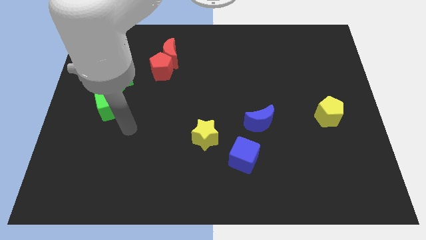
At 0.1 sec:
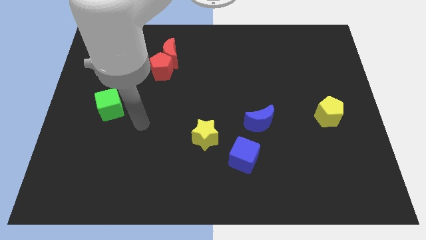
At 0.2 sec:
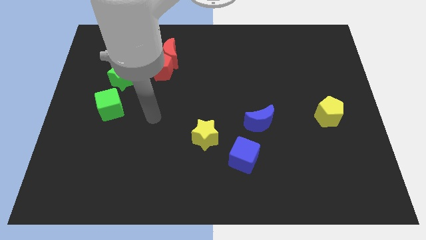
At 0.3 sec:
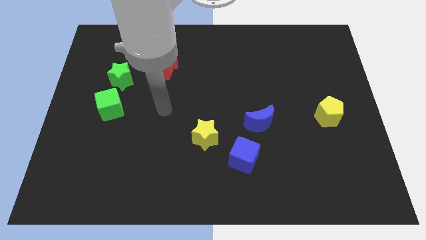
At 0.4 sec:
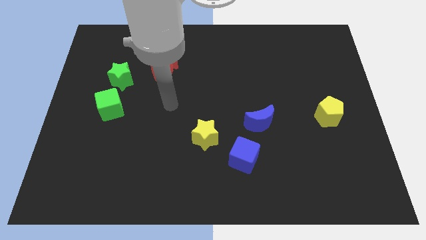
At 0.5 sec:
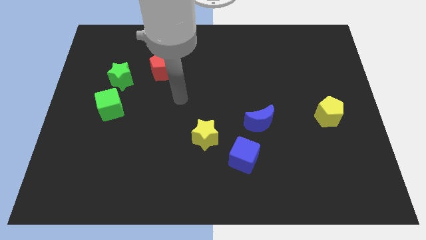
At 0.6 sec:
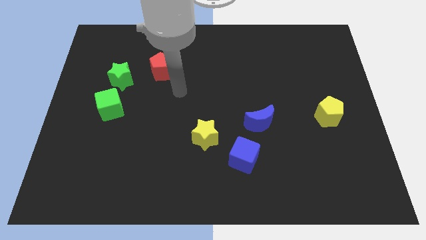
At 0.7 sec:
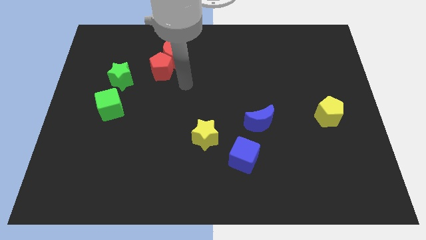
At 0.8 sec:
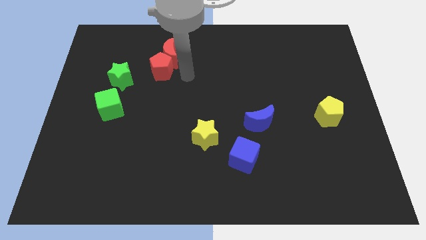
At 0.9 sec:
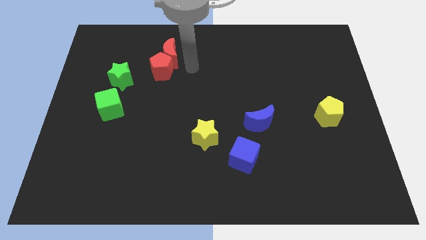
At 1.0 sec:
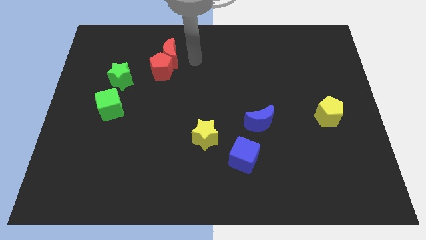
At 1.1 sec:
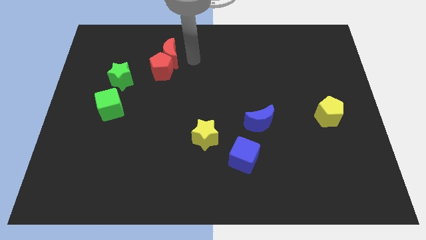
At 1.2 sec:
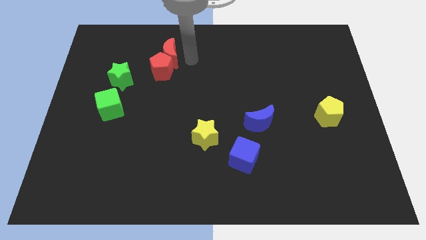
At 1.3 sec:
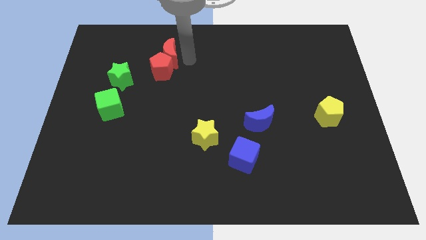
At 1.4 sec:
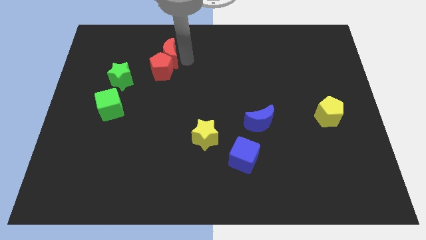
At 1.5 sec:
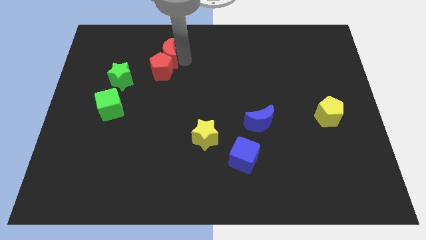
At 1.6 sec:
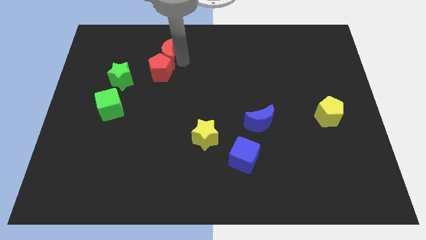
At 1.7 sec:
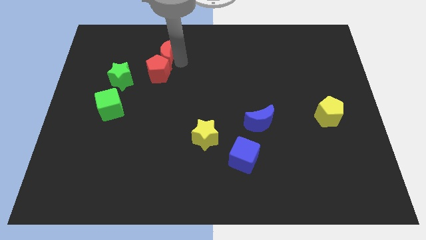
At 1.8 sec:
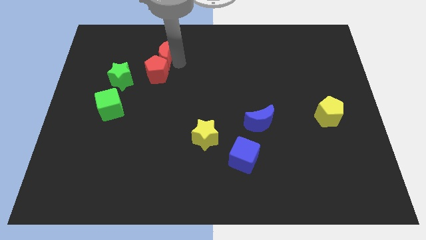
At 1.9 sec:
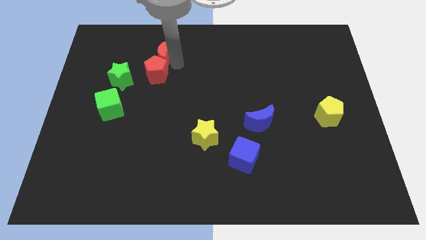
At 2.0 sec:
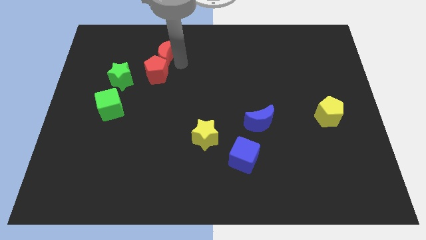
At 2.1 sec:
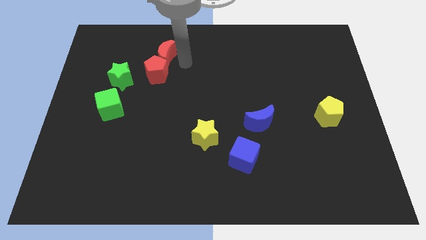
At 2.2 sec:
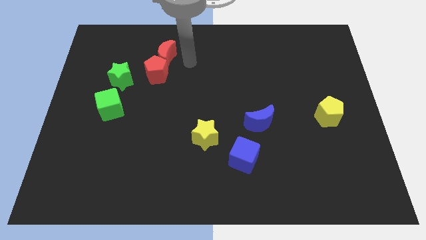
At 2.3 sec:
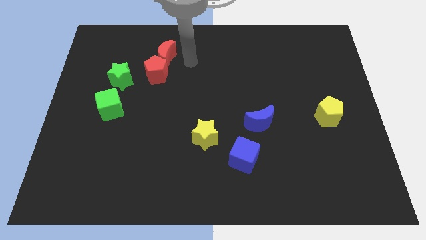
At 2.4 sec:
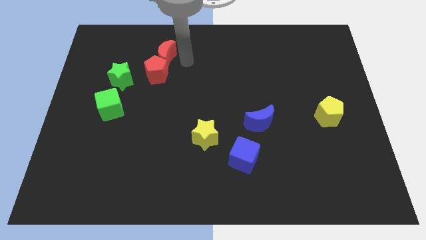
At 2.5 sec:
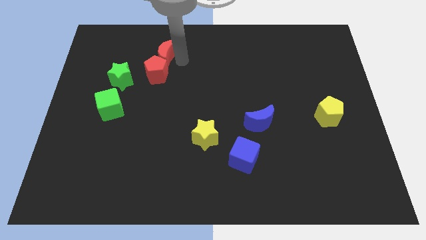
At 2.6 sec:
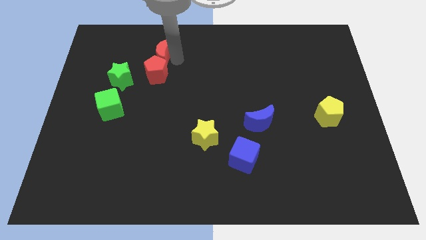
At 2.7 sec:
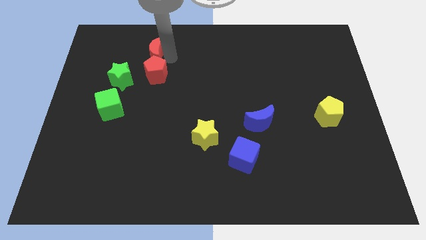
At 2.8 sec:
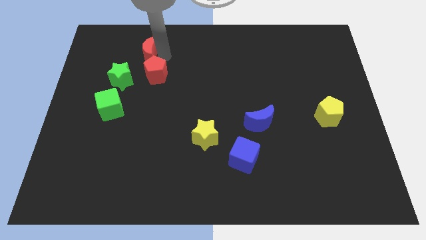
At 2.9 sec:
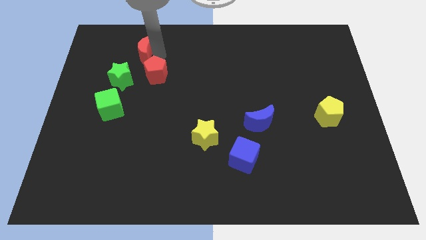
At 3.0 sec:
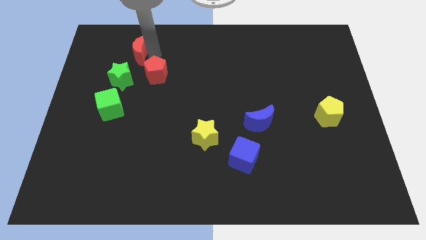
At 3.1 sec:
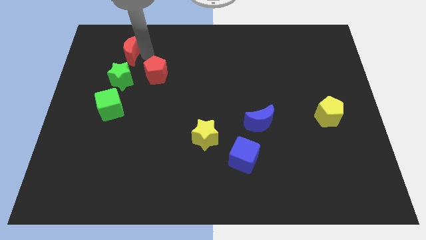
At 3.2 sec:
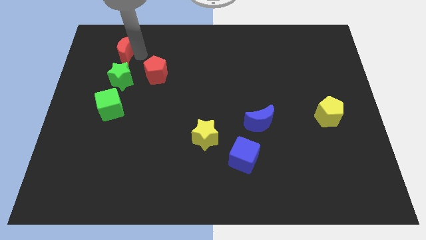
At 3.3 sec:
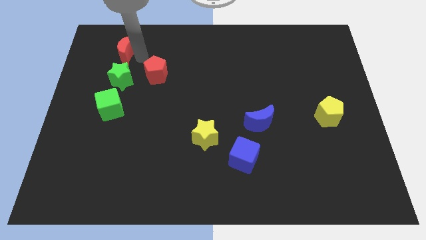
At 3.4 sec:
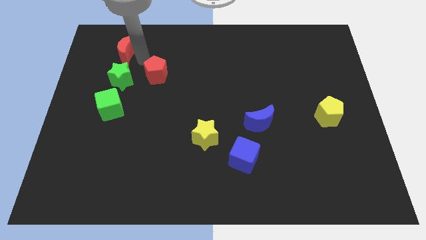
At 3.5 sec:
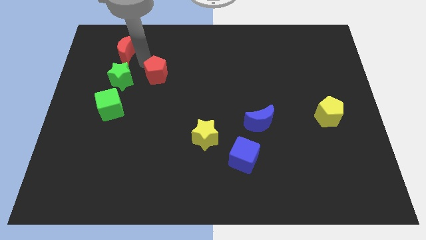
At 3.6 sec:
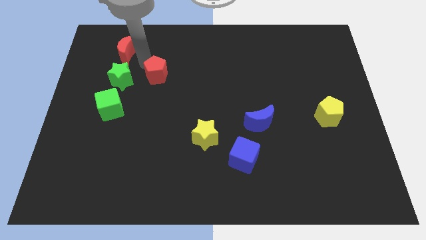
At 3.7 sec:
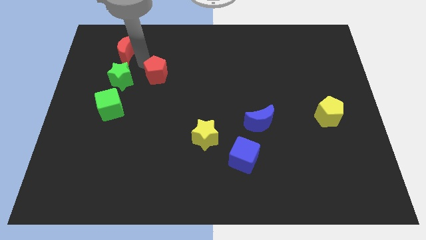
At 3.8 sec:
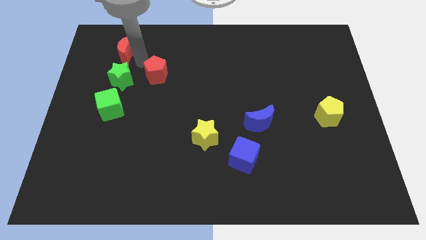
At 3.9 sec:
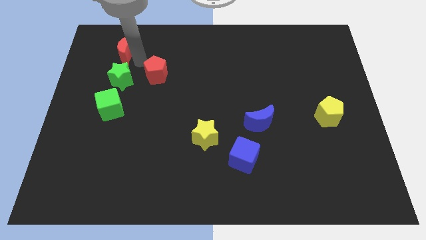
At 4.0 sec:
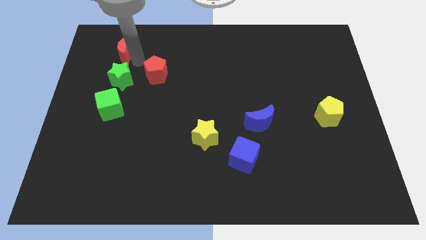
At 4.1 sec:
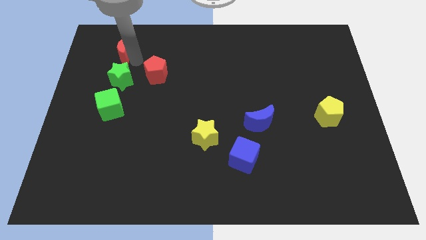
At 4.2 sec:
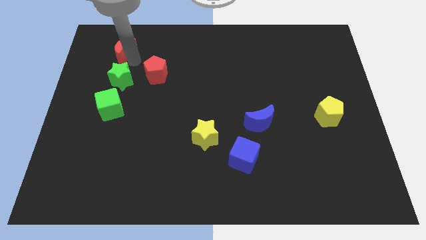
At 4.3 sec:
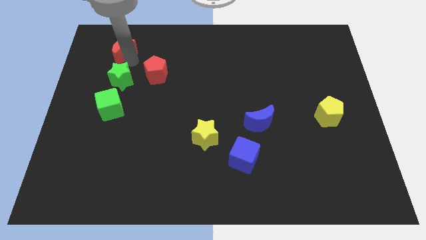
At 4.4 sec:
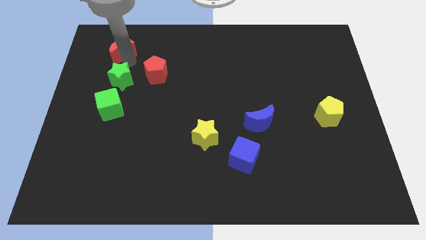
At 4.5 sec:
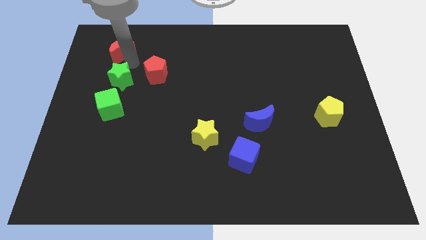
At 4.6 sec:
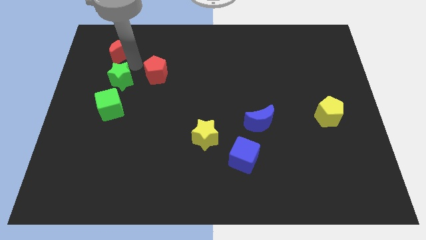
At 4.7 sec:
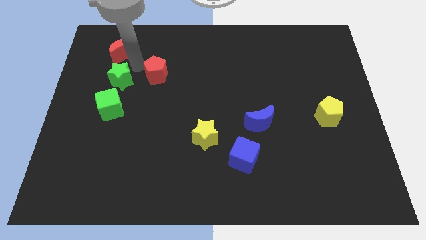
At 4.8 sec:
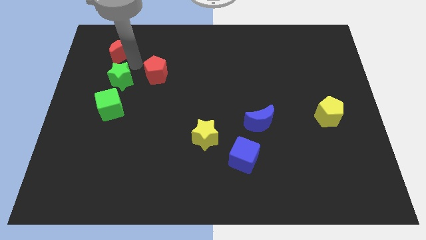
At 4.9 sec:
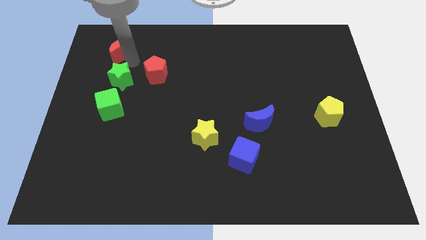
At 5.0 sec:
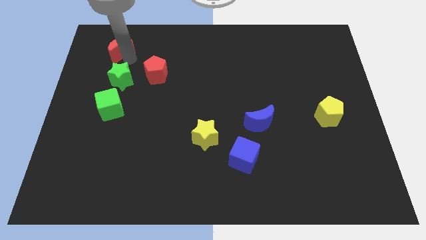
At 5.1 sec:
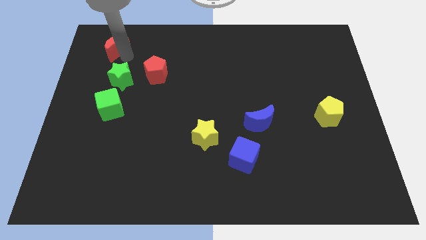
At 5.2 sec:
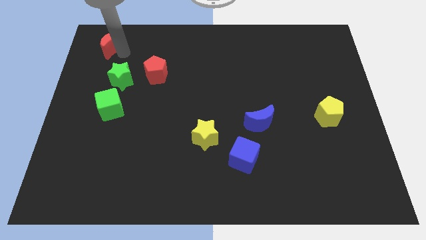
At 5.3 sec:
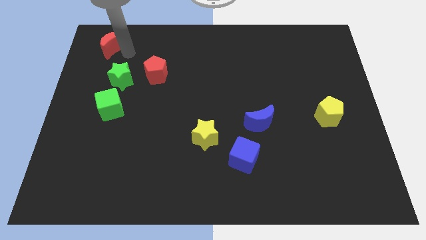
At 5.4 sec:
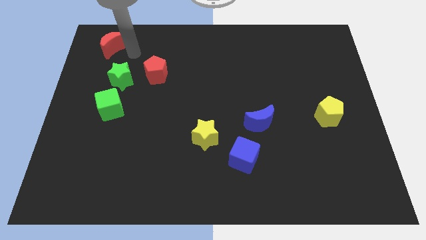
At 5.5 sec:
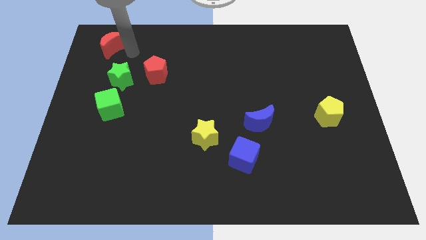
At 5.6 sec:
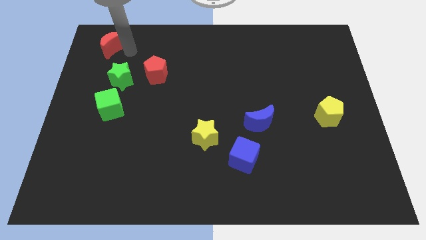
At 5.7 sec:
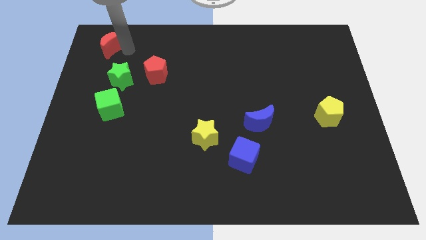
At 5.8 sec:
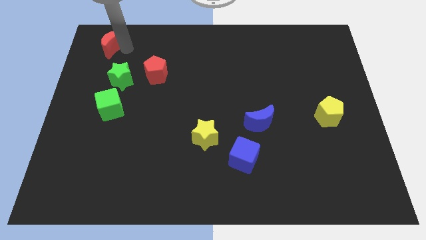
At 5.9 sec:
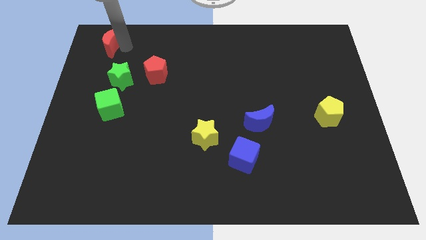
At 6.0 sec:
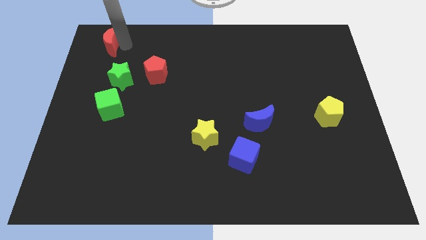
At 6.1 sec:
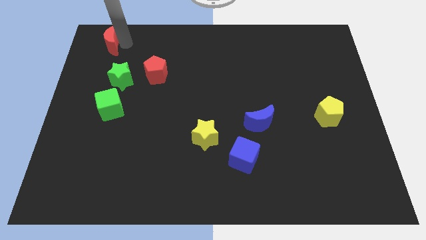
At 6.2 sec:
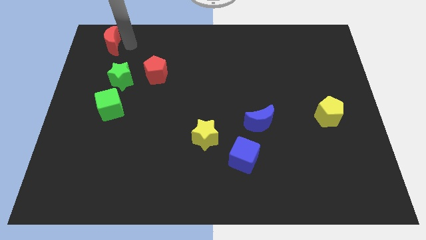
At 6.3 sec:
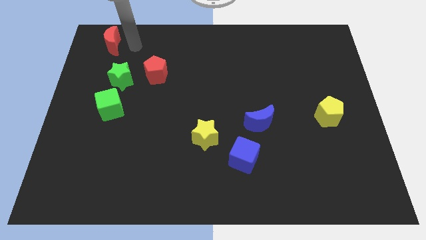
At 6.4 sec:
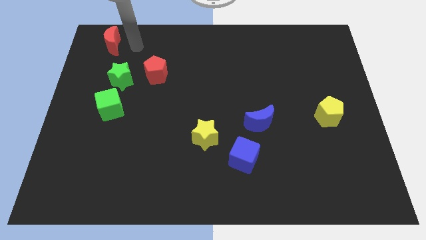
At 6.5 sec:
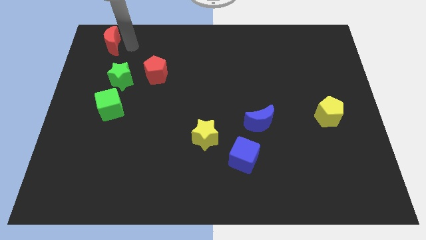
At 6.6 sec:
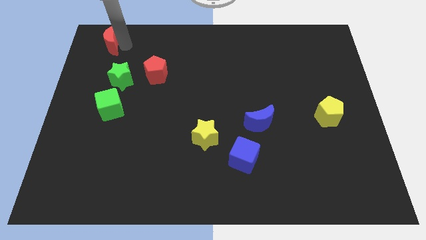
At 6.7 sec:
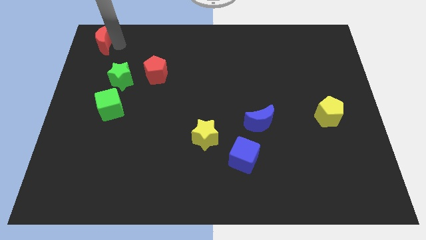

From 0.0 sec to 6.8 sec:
push the red moon to the top left corner

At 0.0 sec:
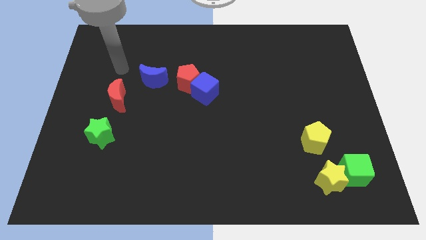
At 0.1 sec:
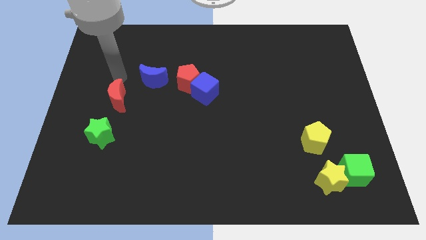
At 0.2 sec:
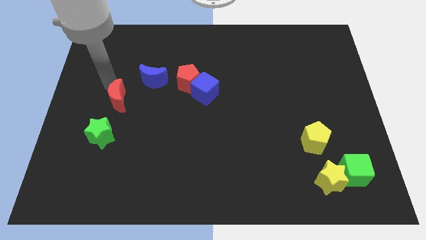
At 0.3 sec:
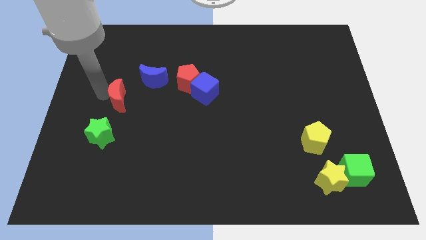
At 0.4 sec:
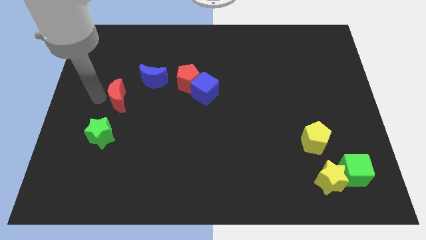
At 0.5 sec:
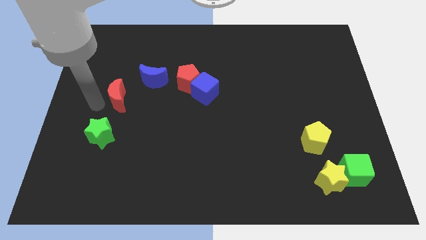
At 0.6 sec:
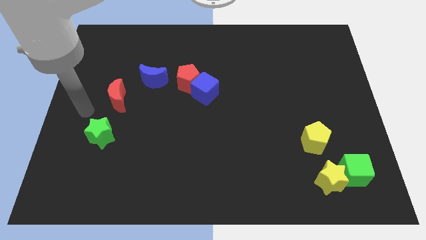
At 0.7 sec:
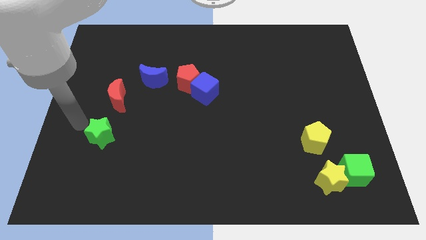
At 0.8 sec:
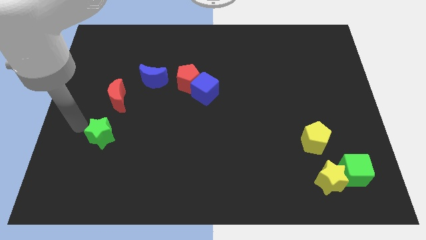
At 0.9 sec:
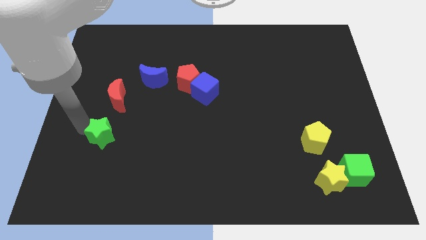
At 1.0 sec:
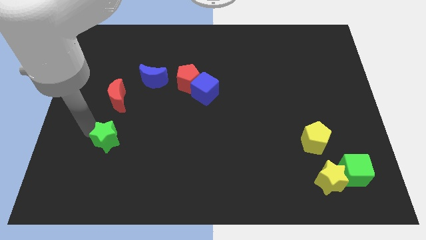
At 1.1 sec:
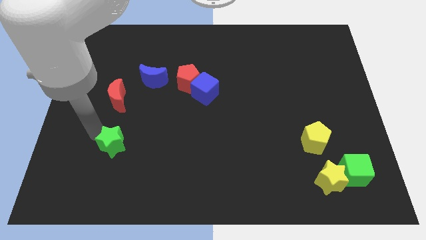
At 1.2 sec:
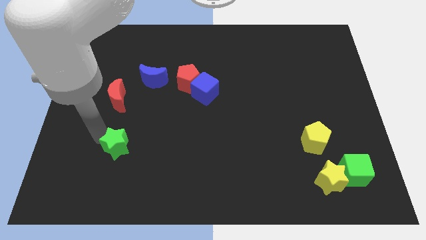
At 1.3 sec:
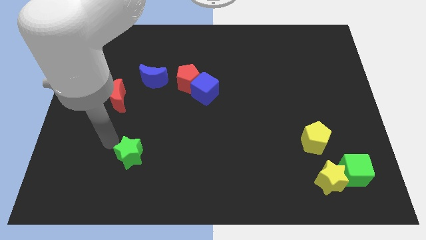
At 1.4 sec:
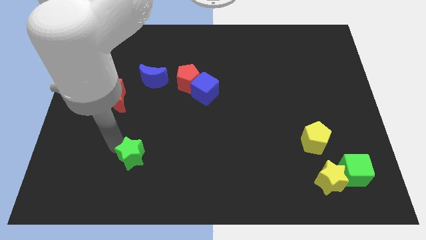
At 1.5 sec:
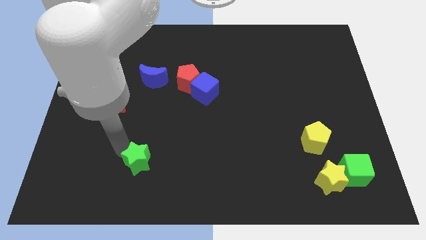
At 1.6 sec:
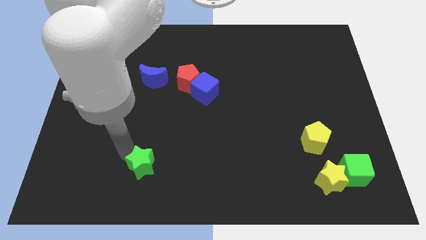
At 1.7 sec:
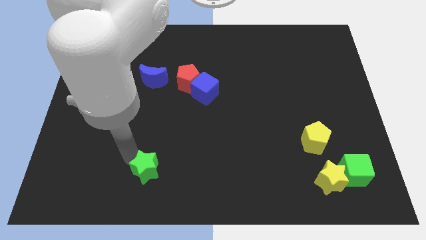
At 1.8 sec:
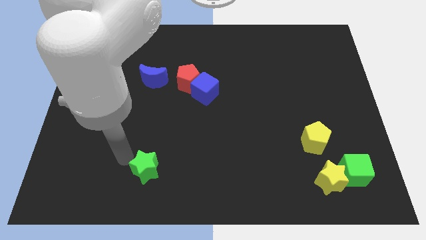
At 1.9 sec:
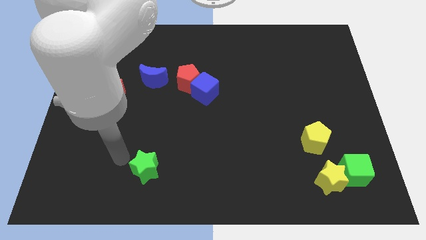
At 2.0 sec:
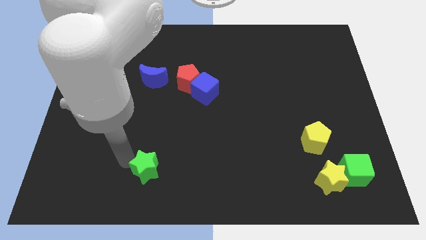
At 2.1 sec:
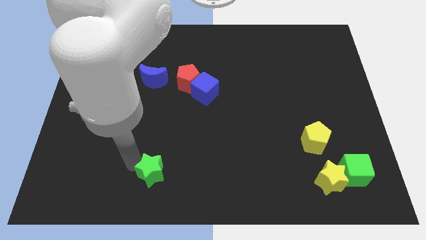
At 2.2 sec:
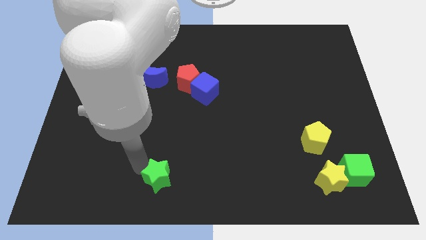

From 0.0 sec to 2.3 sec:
put the green star to the bottom
